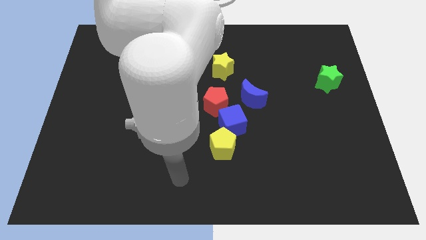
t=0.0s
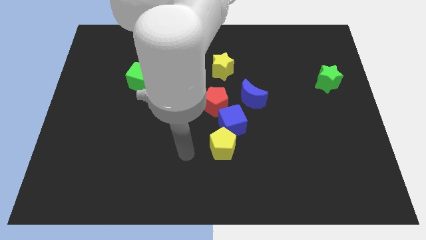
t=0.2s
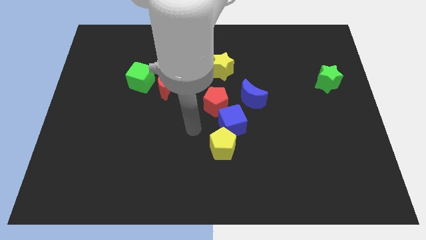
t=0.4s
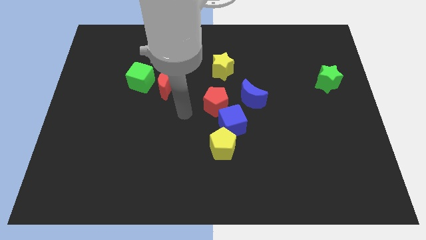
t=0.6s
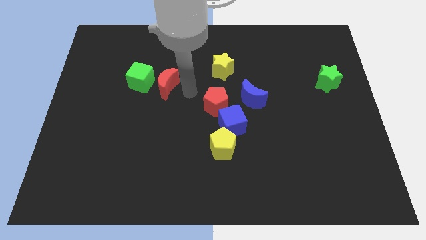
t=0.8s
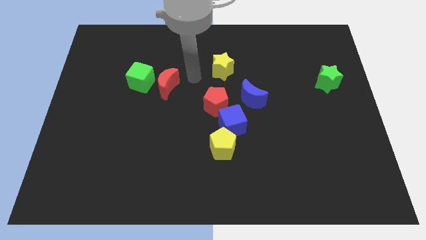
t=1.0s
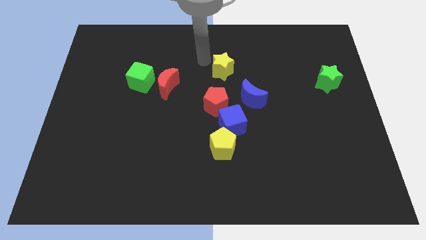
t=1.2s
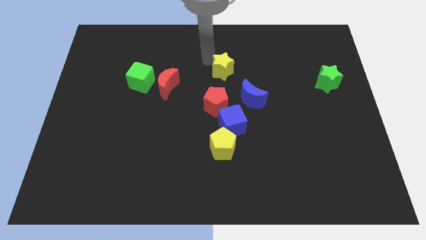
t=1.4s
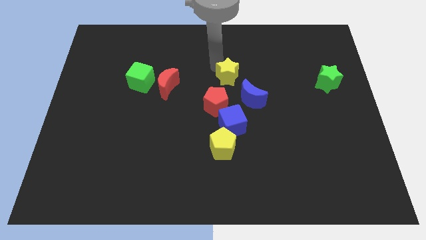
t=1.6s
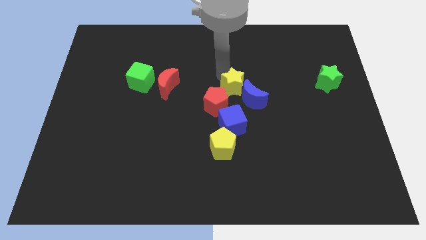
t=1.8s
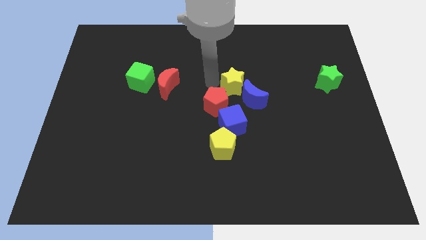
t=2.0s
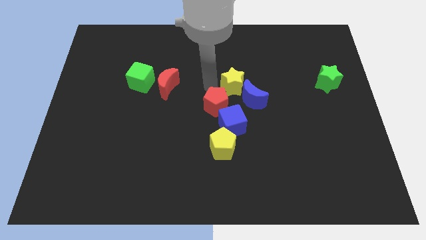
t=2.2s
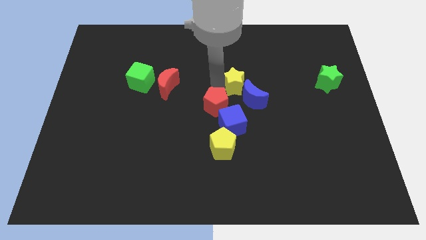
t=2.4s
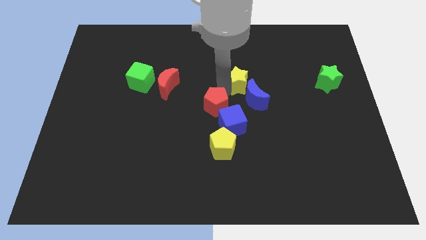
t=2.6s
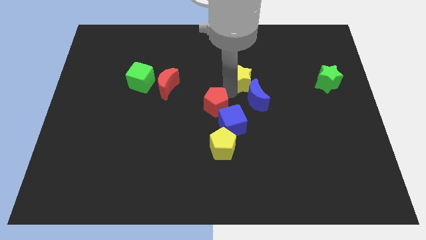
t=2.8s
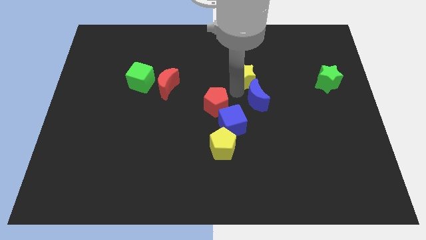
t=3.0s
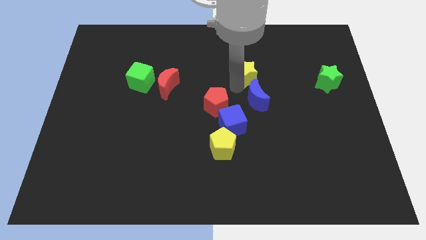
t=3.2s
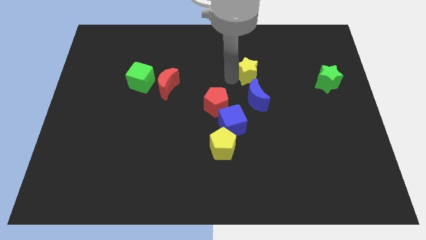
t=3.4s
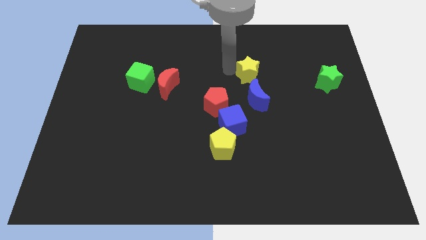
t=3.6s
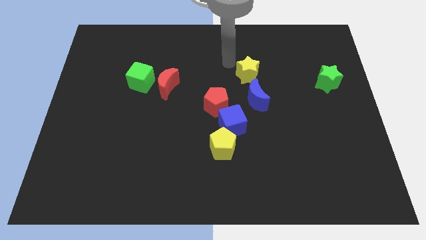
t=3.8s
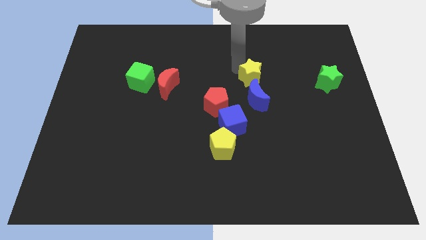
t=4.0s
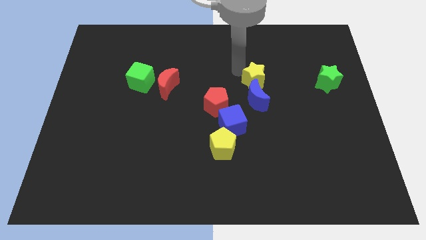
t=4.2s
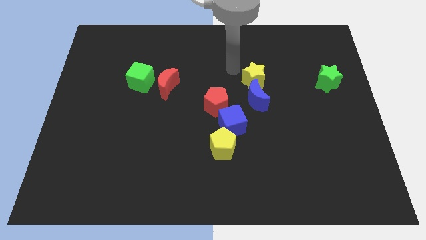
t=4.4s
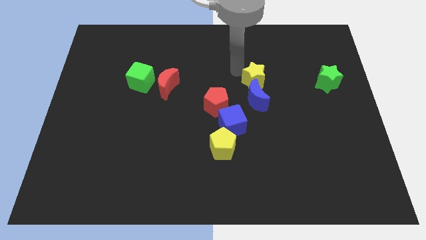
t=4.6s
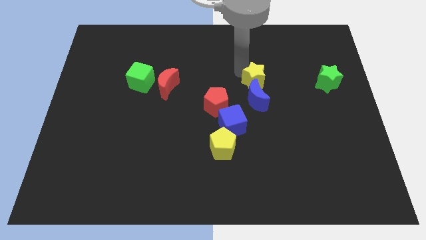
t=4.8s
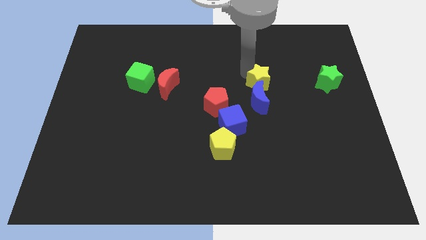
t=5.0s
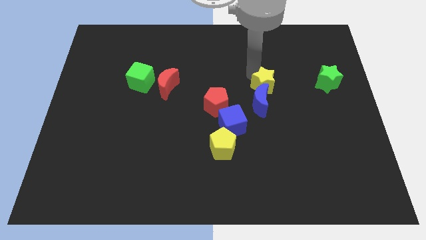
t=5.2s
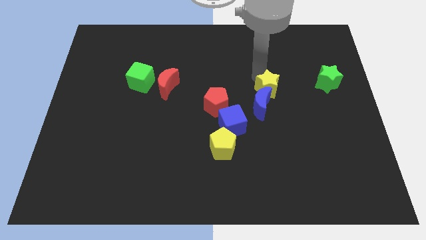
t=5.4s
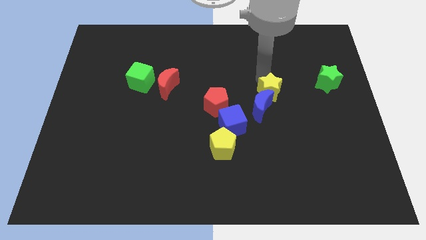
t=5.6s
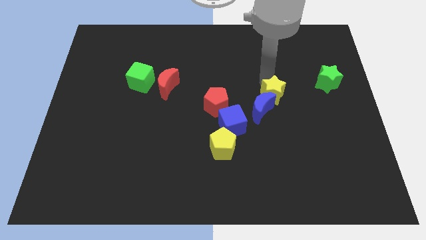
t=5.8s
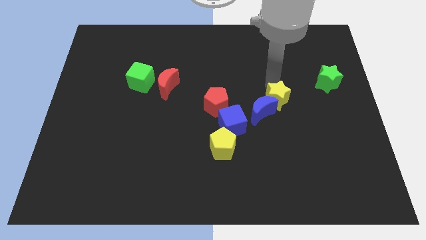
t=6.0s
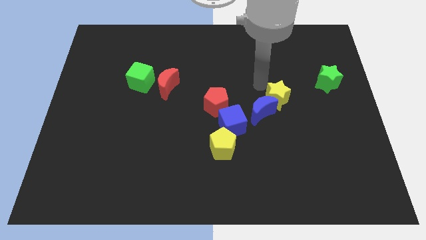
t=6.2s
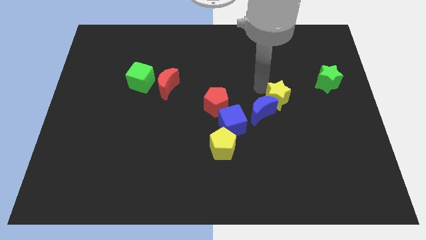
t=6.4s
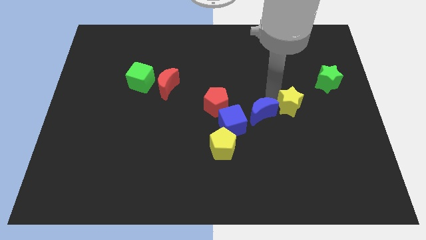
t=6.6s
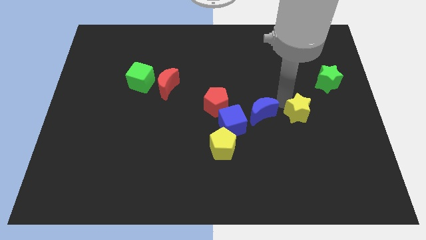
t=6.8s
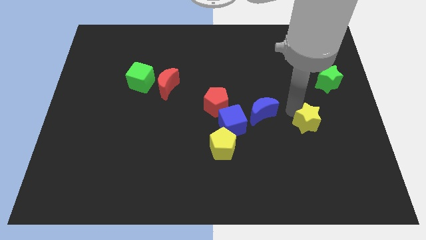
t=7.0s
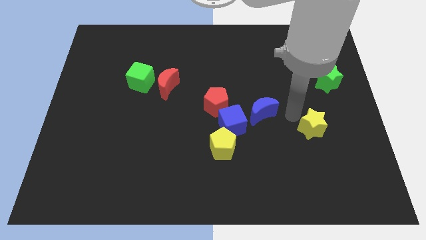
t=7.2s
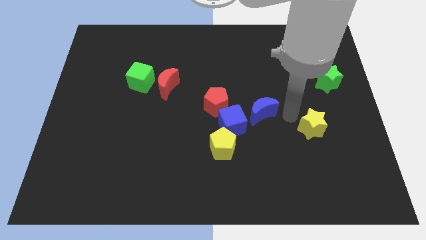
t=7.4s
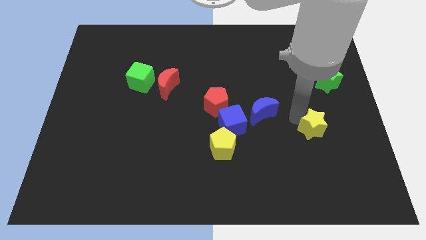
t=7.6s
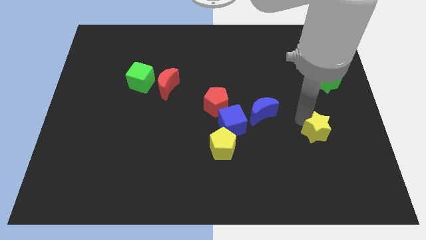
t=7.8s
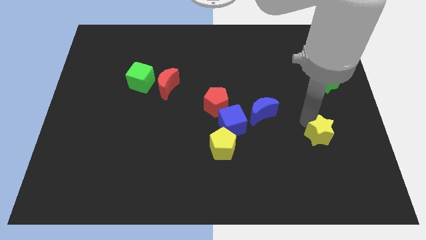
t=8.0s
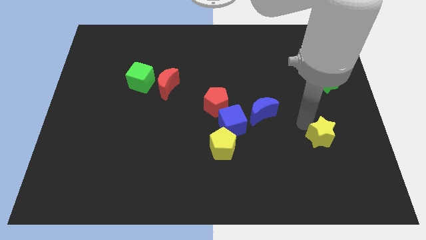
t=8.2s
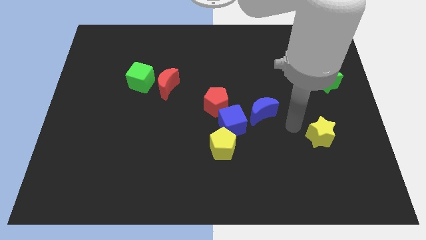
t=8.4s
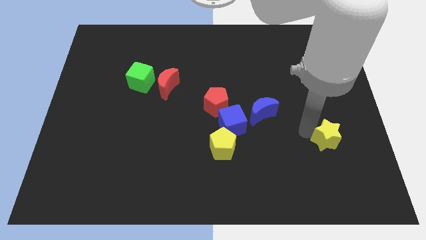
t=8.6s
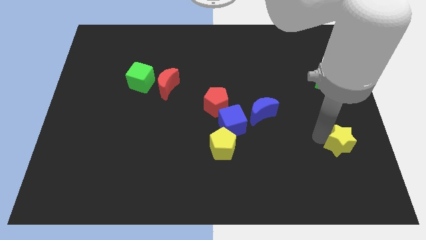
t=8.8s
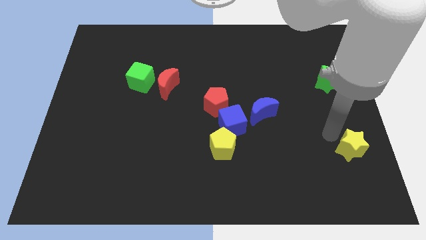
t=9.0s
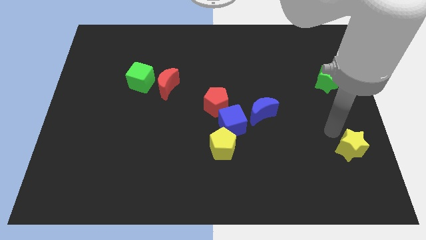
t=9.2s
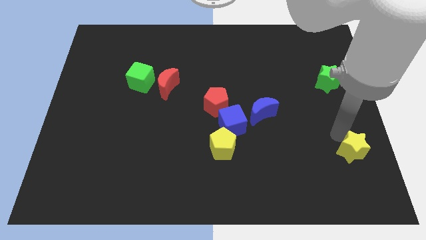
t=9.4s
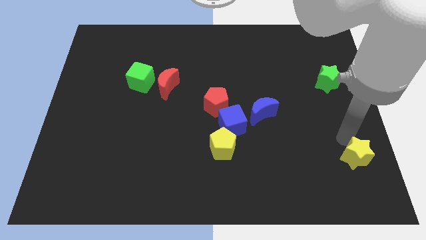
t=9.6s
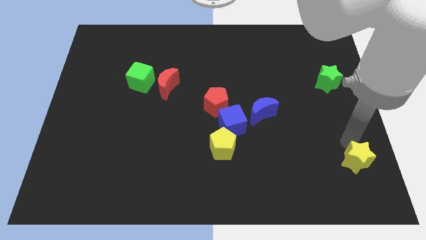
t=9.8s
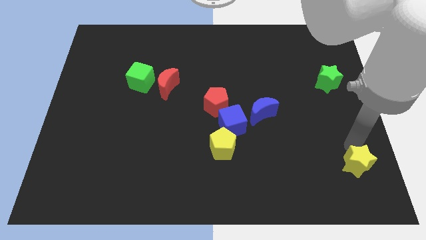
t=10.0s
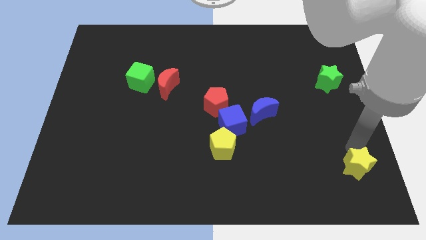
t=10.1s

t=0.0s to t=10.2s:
put the yellow star to the bottom right of the board
